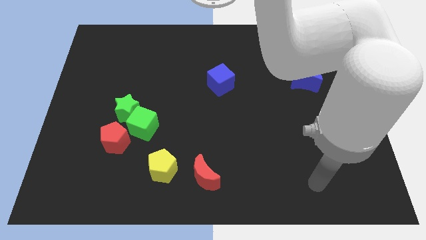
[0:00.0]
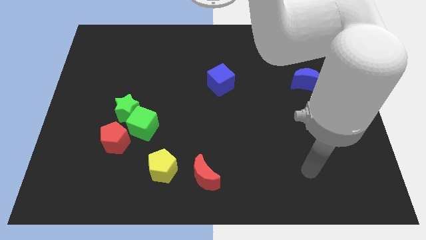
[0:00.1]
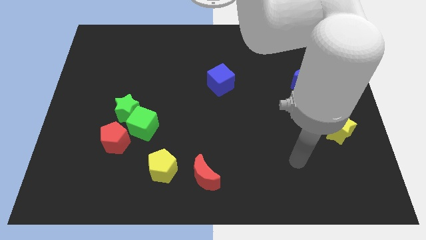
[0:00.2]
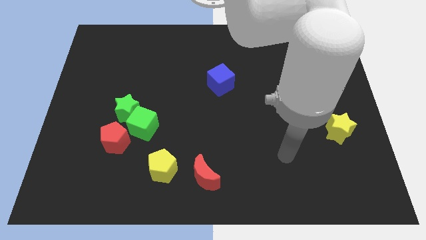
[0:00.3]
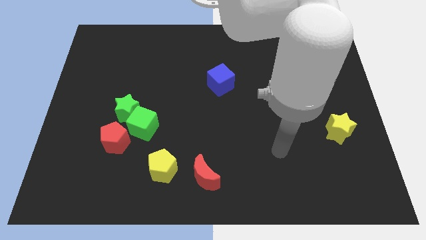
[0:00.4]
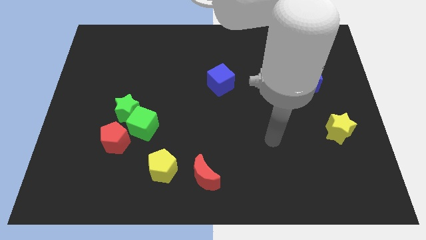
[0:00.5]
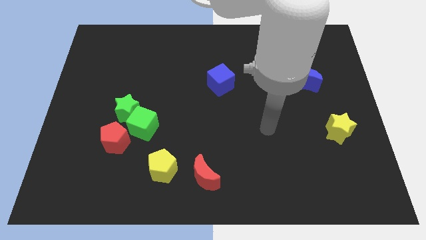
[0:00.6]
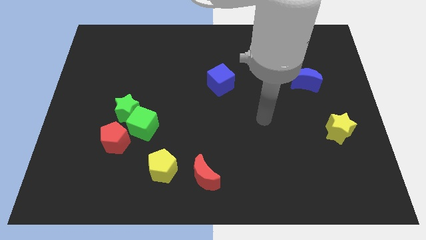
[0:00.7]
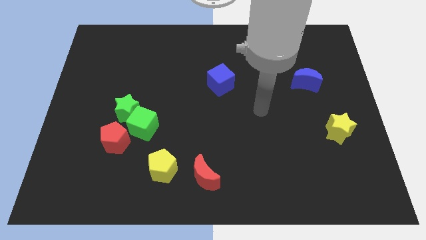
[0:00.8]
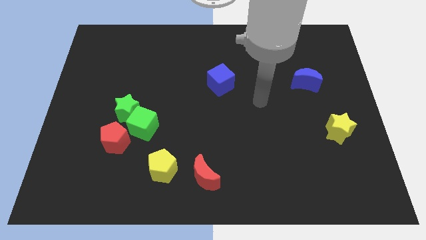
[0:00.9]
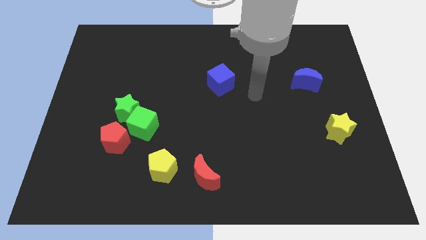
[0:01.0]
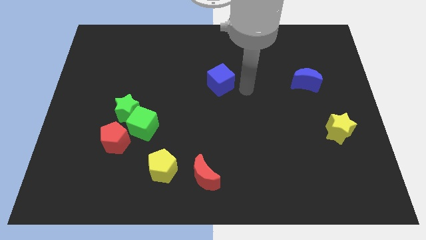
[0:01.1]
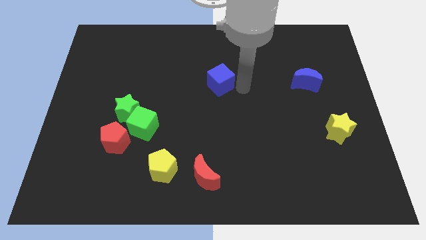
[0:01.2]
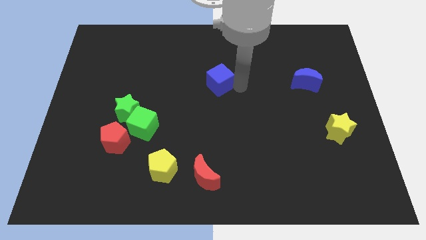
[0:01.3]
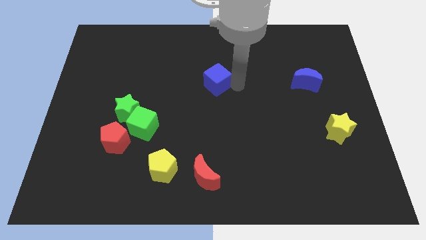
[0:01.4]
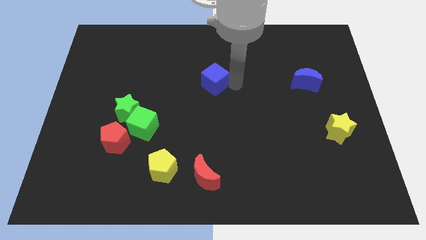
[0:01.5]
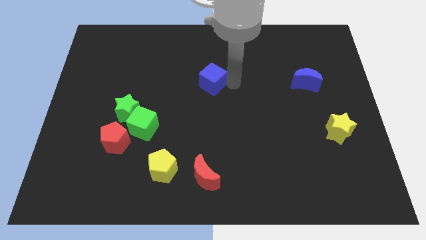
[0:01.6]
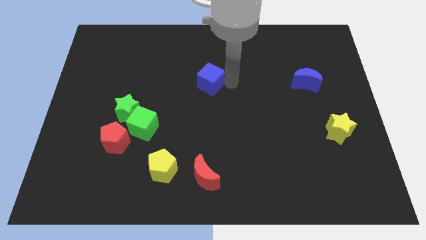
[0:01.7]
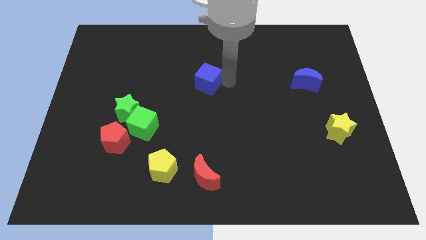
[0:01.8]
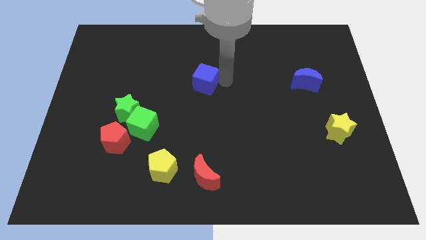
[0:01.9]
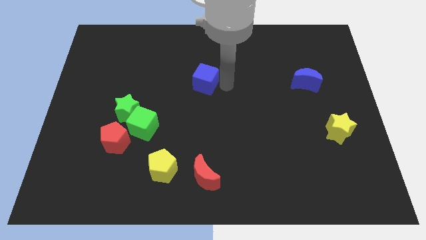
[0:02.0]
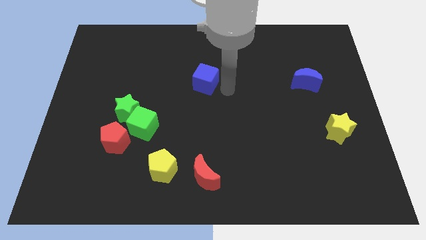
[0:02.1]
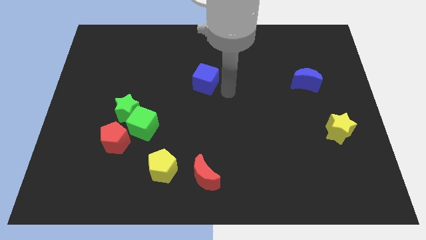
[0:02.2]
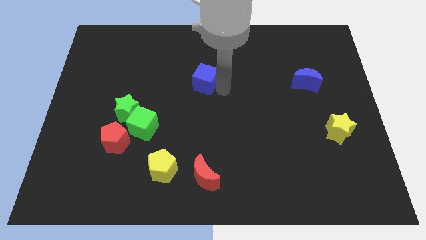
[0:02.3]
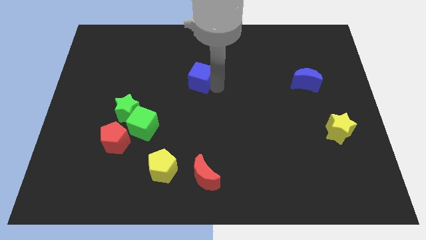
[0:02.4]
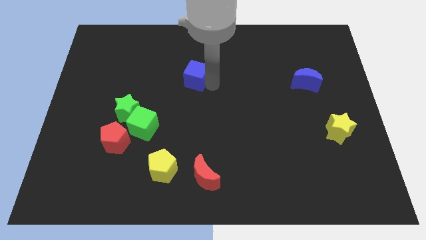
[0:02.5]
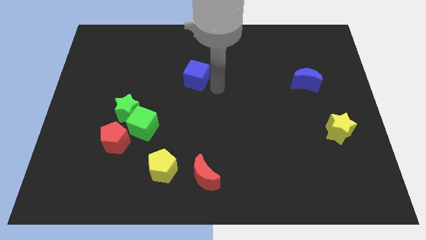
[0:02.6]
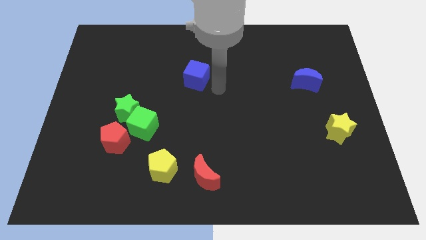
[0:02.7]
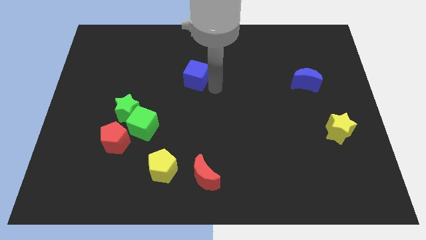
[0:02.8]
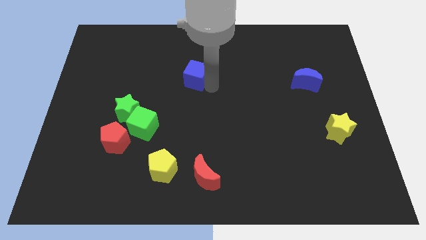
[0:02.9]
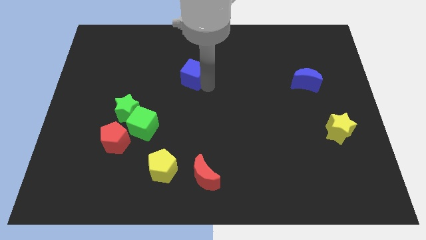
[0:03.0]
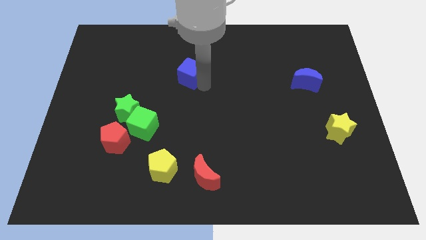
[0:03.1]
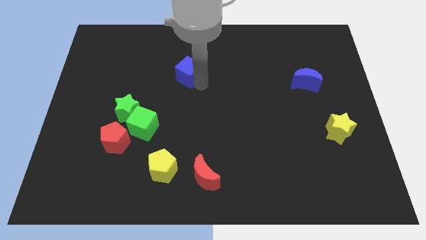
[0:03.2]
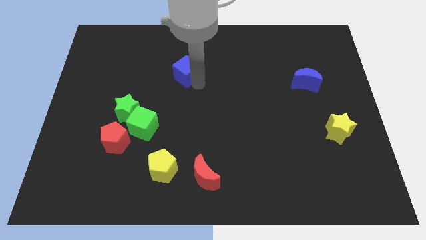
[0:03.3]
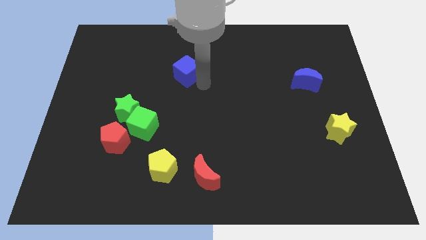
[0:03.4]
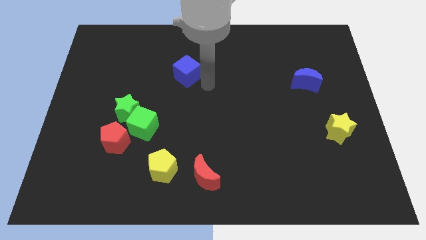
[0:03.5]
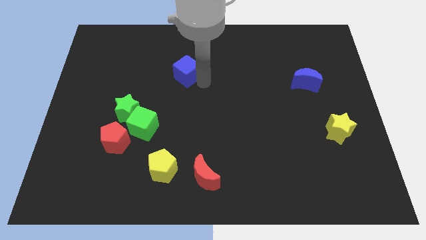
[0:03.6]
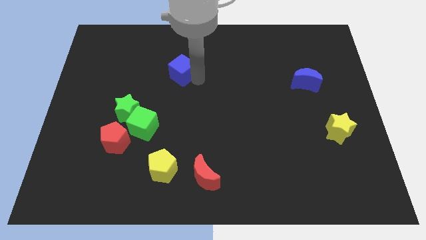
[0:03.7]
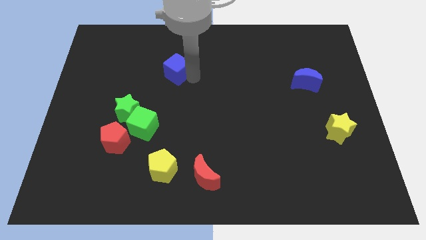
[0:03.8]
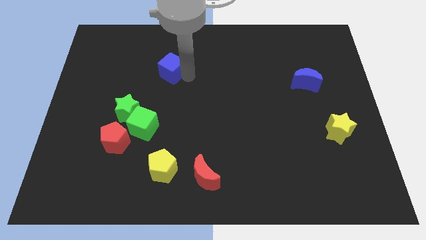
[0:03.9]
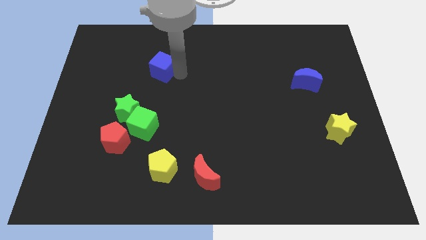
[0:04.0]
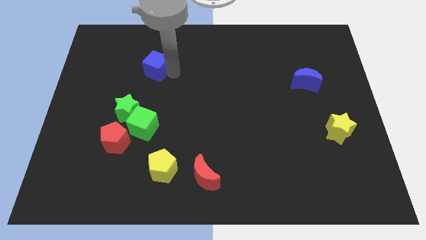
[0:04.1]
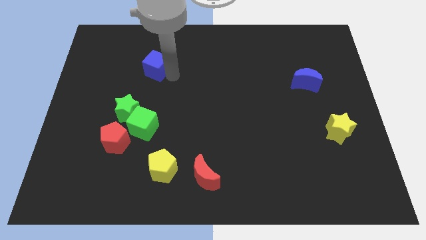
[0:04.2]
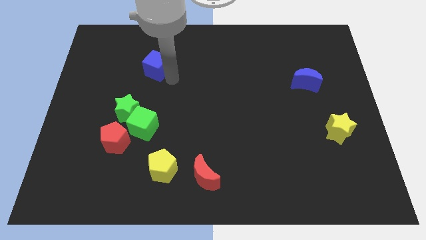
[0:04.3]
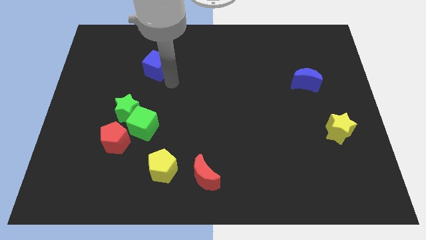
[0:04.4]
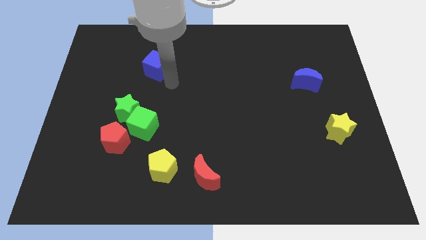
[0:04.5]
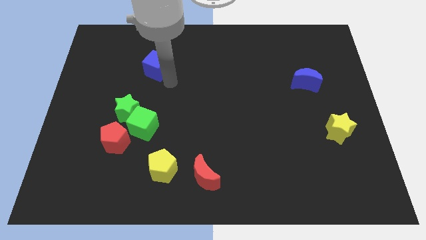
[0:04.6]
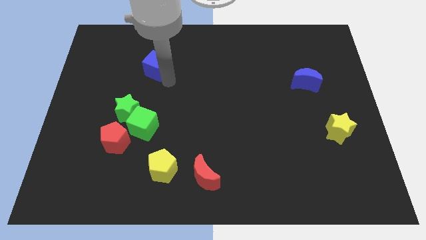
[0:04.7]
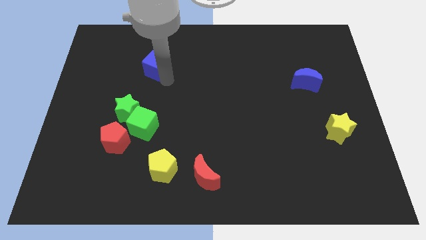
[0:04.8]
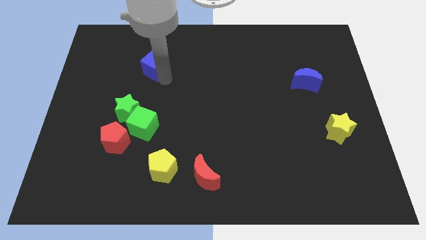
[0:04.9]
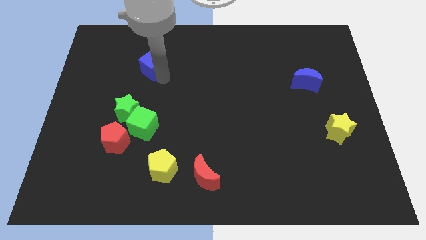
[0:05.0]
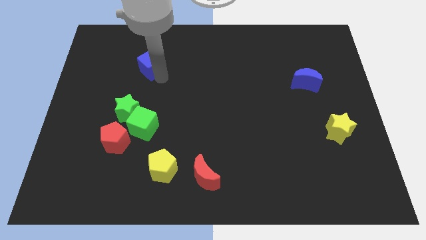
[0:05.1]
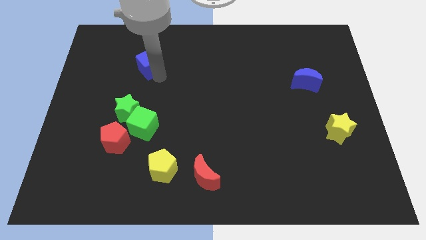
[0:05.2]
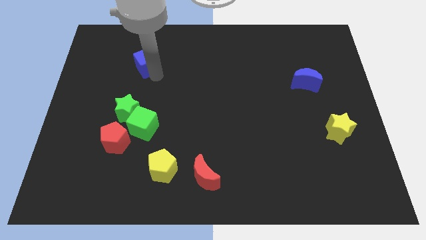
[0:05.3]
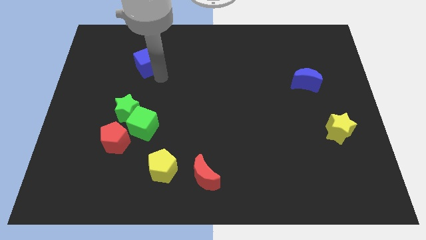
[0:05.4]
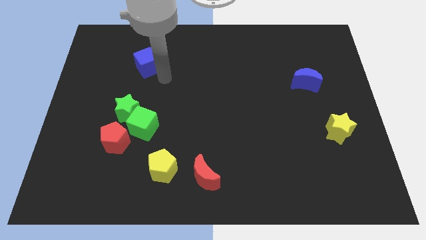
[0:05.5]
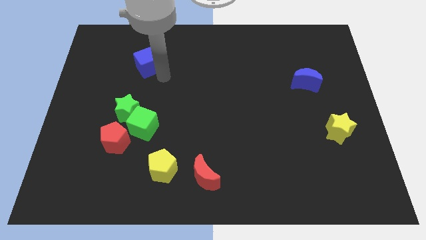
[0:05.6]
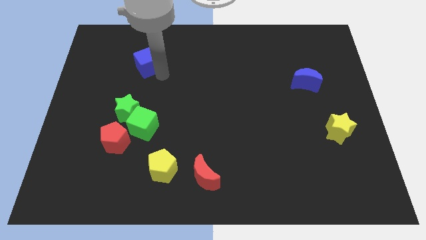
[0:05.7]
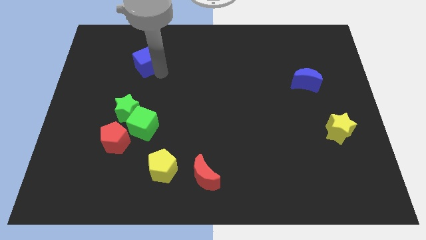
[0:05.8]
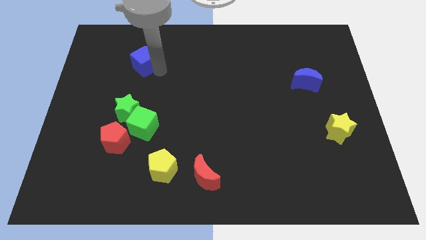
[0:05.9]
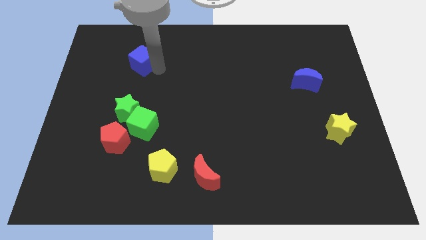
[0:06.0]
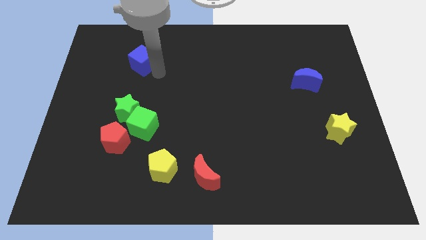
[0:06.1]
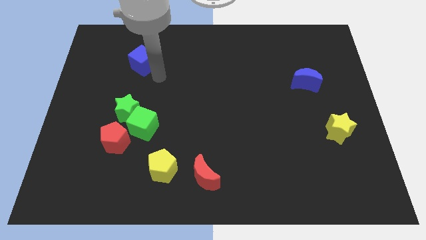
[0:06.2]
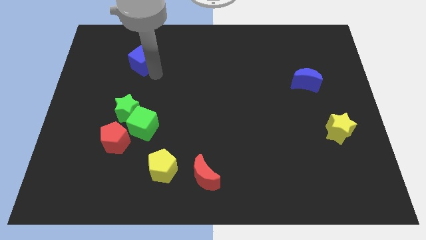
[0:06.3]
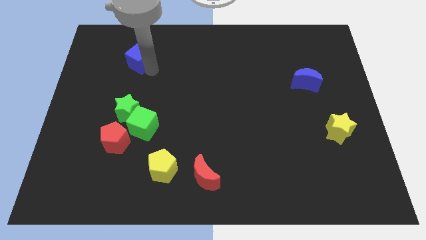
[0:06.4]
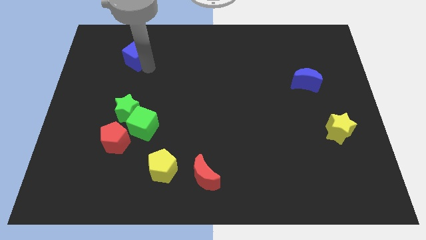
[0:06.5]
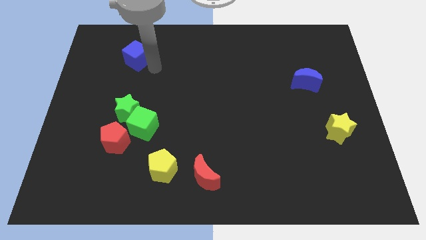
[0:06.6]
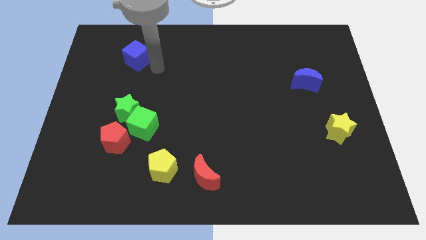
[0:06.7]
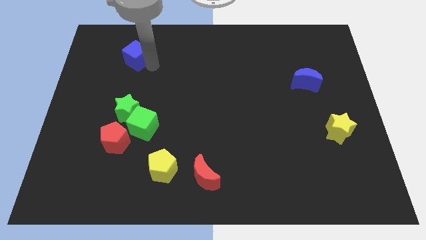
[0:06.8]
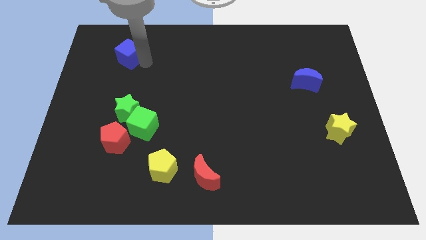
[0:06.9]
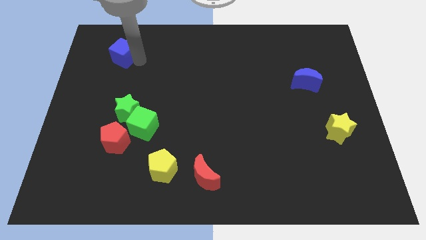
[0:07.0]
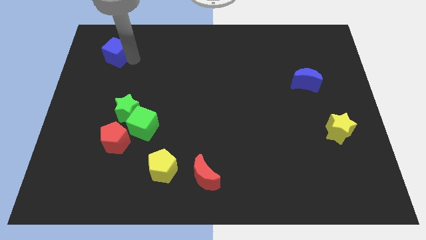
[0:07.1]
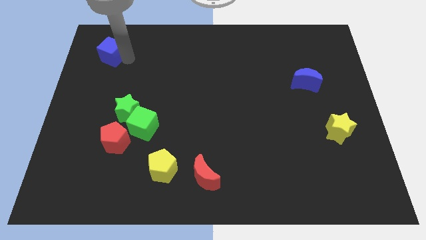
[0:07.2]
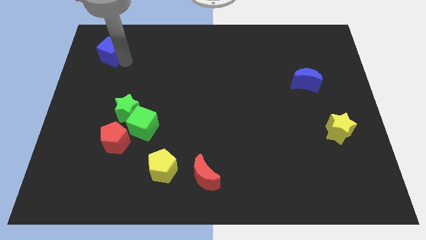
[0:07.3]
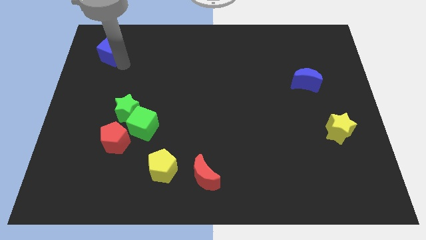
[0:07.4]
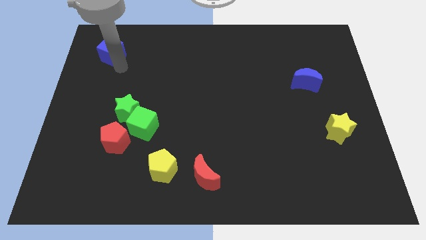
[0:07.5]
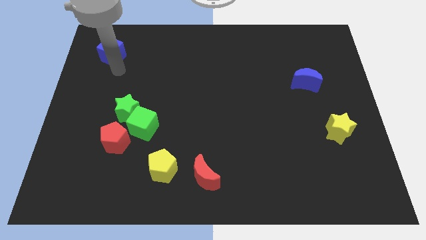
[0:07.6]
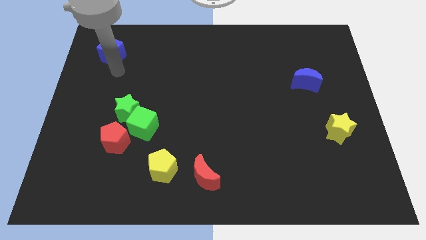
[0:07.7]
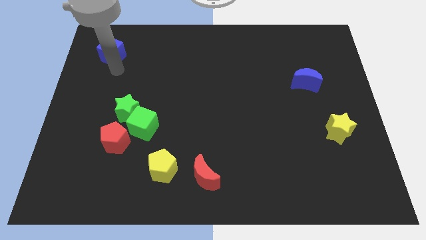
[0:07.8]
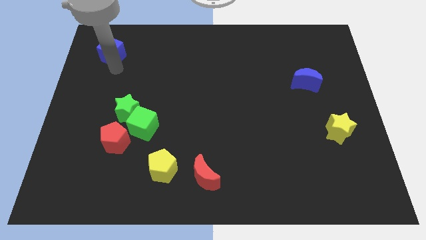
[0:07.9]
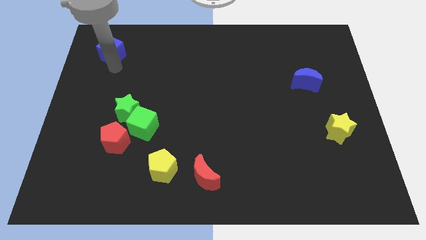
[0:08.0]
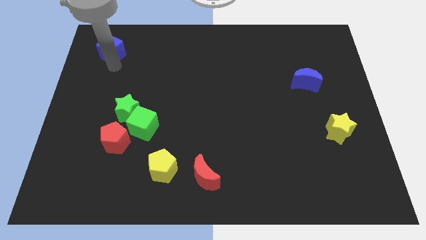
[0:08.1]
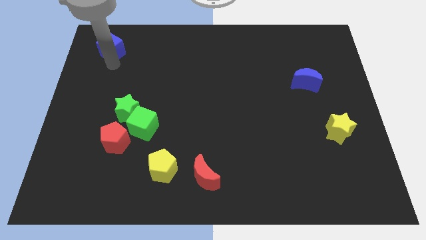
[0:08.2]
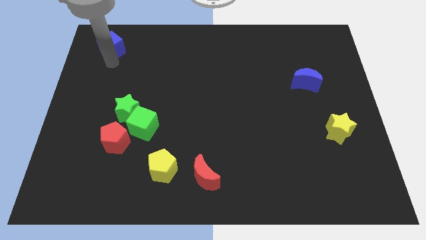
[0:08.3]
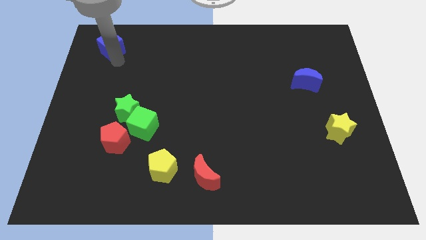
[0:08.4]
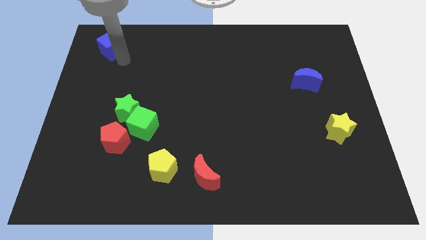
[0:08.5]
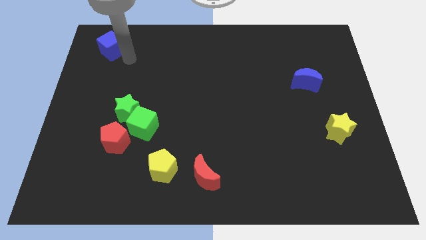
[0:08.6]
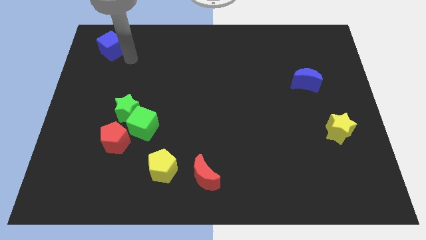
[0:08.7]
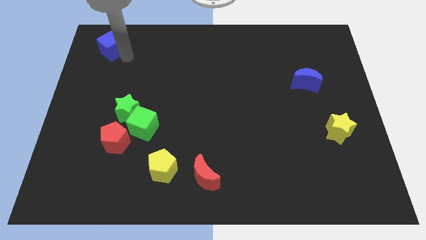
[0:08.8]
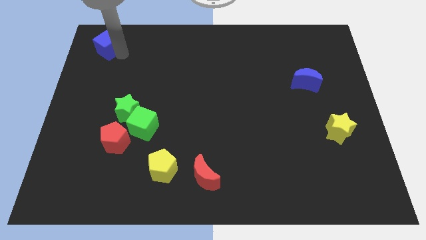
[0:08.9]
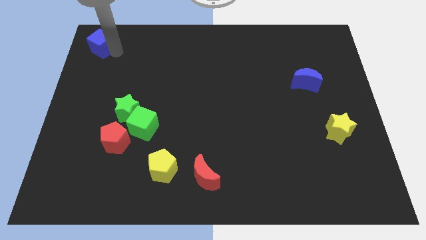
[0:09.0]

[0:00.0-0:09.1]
put the blue cube to the top left
